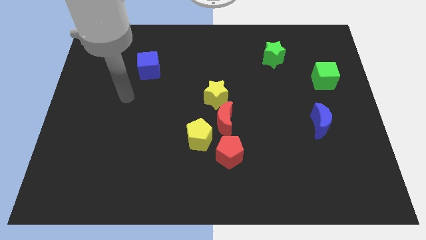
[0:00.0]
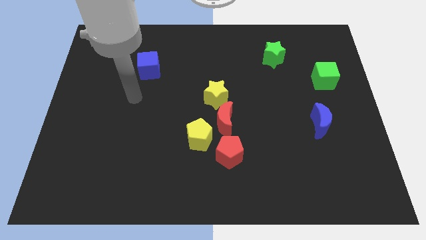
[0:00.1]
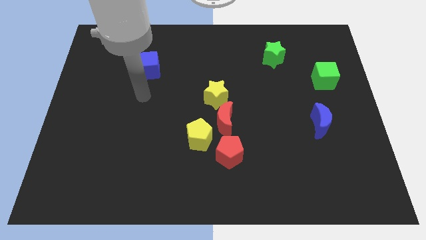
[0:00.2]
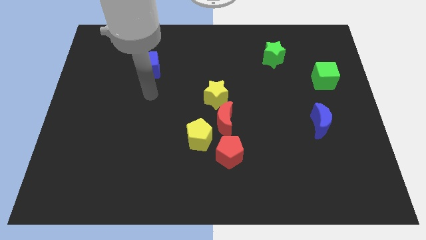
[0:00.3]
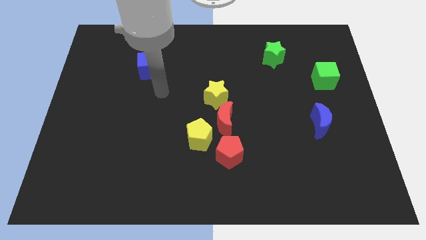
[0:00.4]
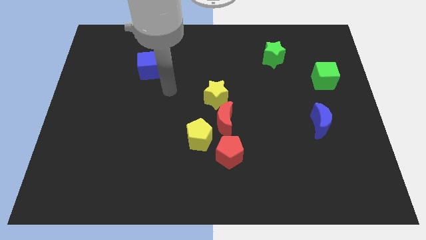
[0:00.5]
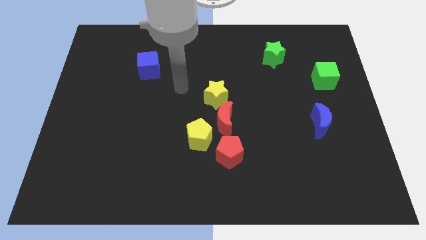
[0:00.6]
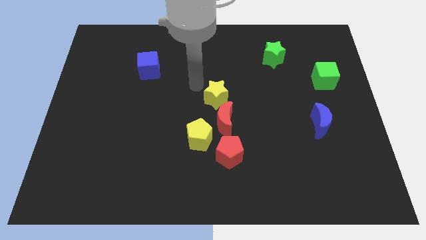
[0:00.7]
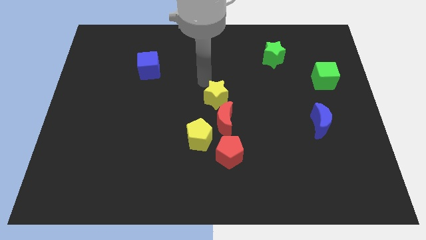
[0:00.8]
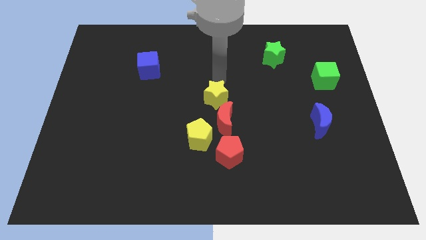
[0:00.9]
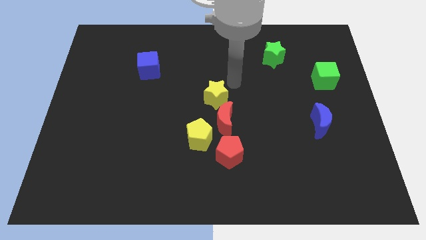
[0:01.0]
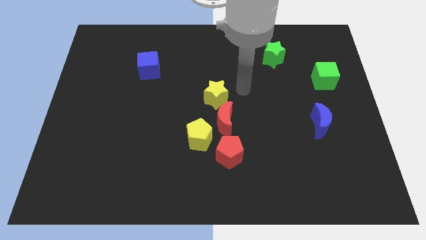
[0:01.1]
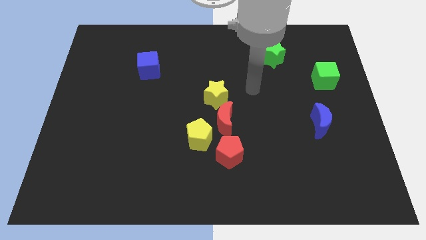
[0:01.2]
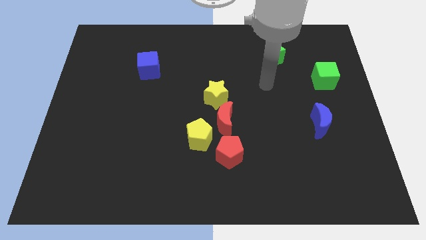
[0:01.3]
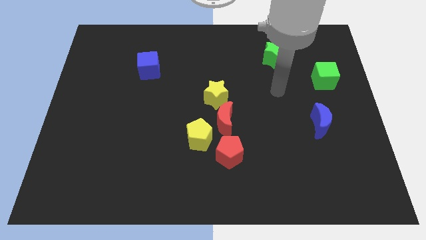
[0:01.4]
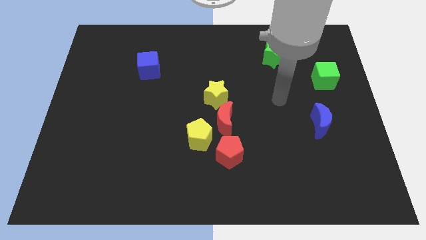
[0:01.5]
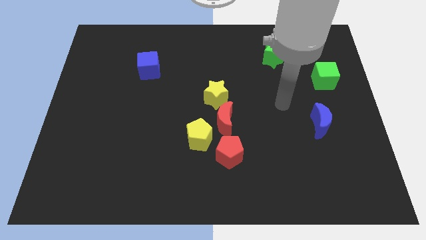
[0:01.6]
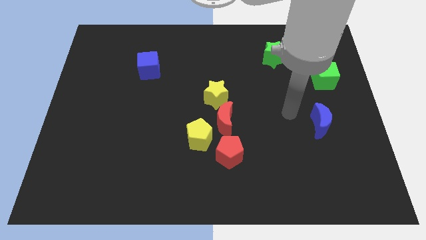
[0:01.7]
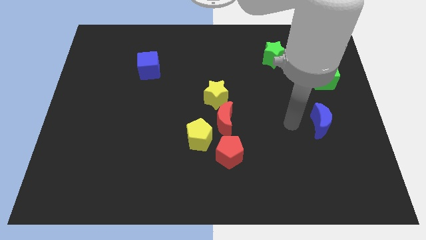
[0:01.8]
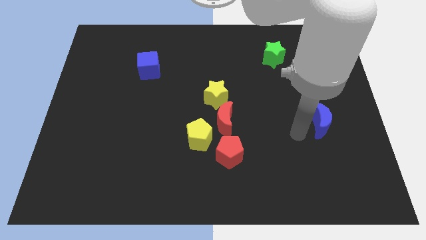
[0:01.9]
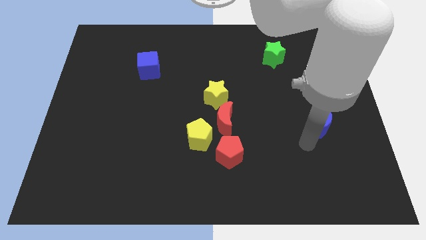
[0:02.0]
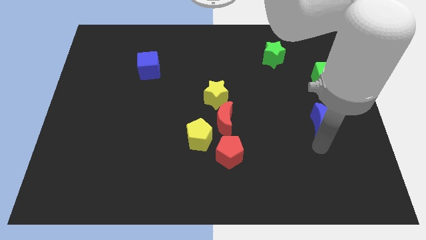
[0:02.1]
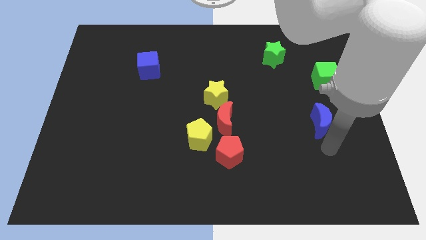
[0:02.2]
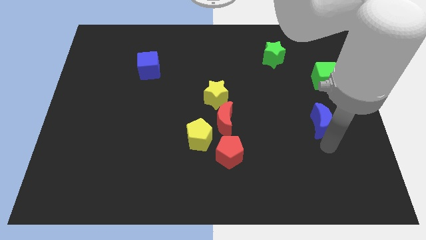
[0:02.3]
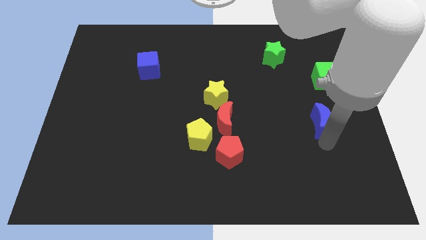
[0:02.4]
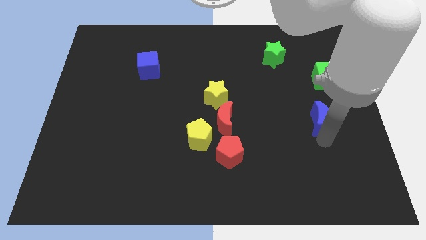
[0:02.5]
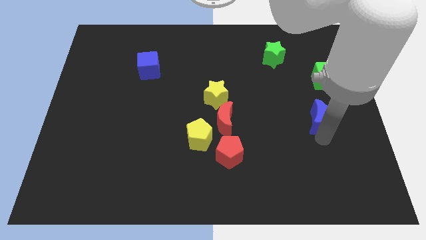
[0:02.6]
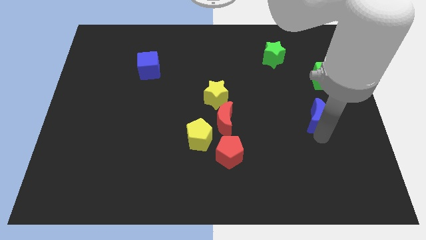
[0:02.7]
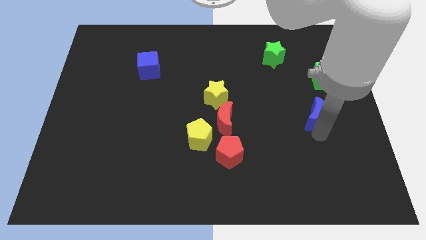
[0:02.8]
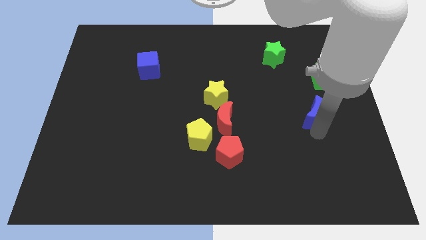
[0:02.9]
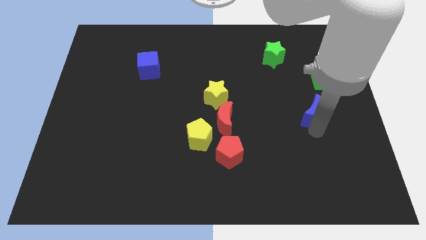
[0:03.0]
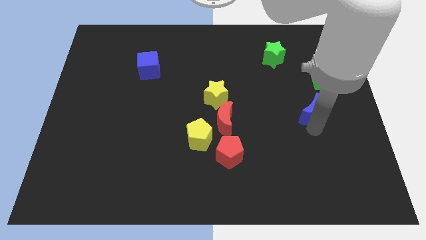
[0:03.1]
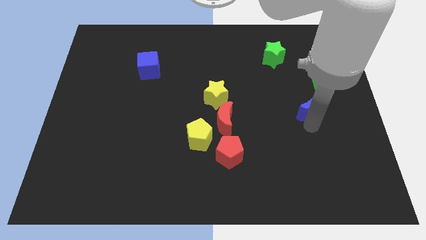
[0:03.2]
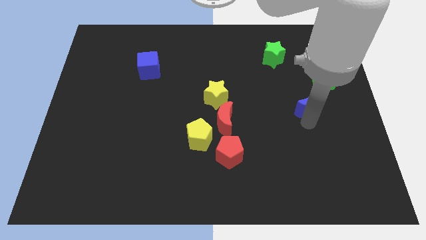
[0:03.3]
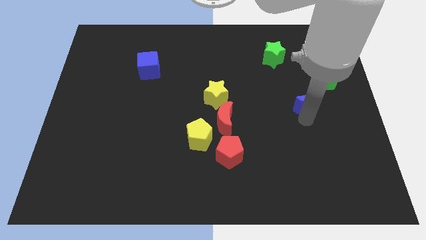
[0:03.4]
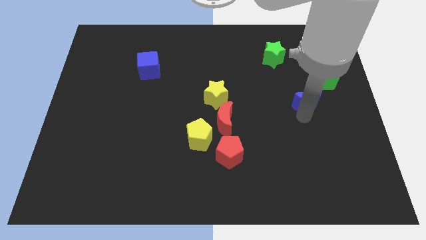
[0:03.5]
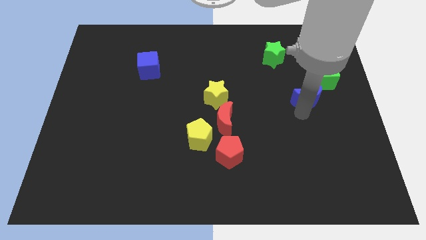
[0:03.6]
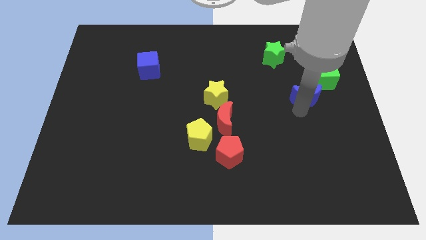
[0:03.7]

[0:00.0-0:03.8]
slightly move the blue moon upwards

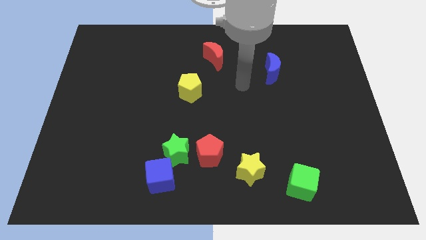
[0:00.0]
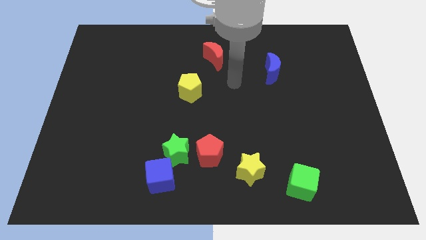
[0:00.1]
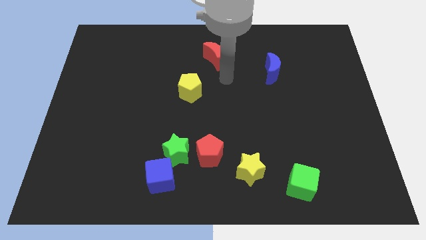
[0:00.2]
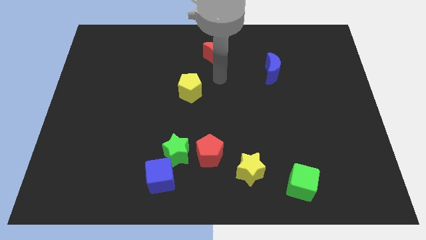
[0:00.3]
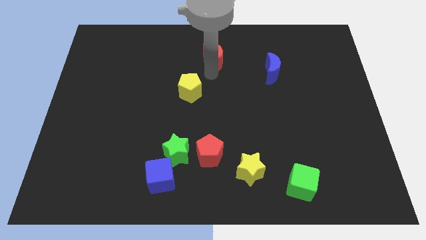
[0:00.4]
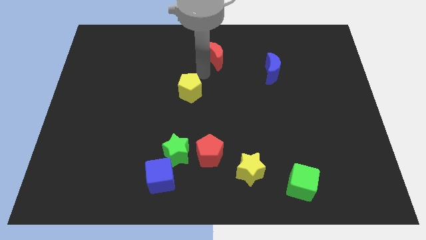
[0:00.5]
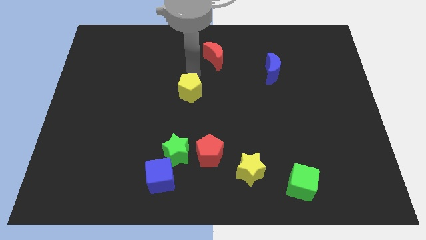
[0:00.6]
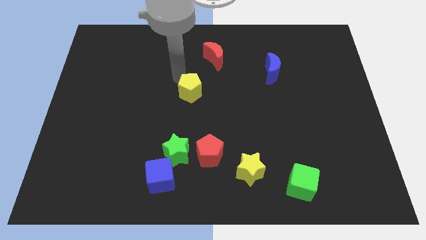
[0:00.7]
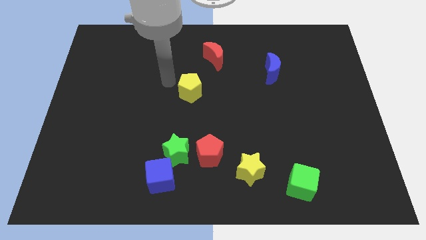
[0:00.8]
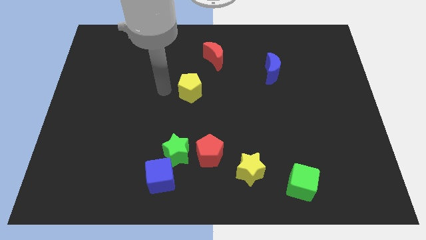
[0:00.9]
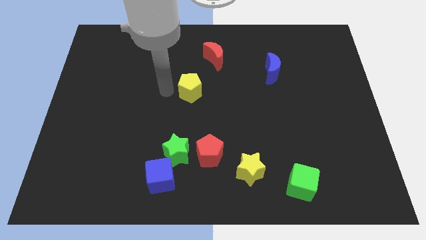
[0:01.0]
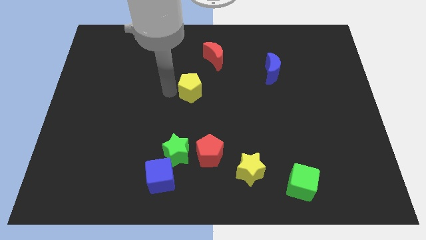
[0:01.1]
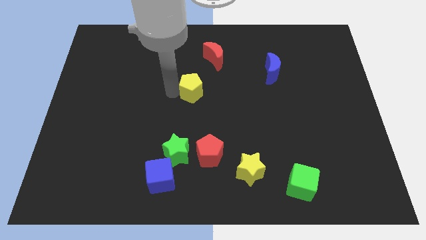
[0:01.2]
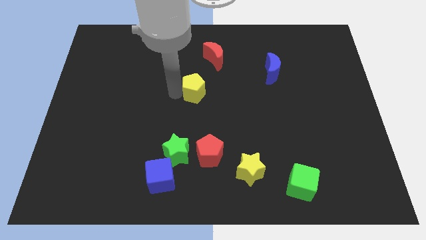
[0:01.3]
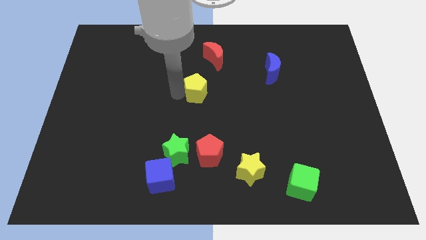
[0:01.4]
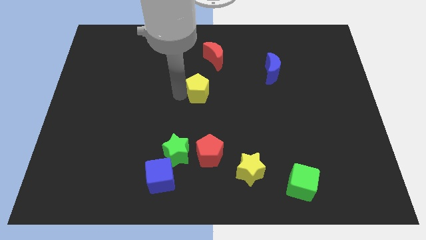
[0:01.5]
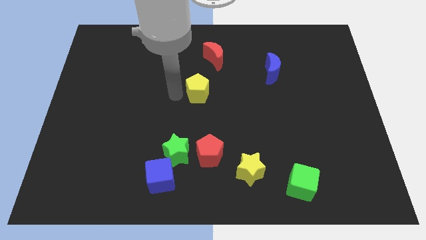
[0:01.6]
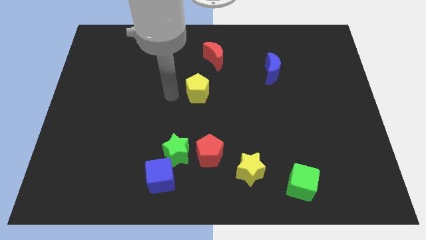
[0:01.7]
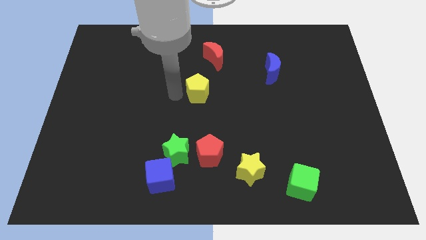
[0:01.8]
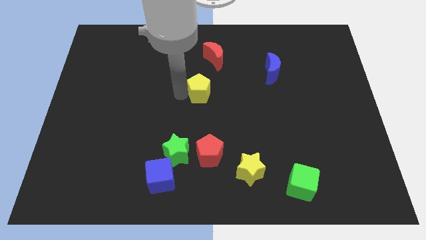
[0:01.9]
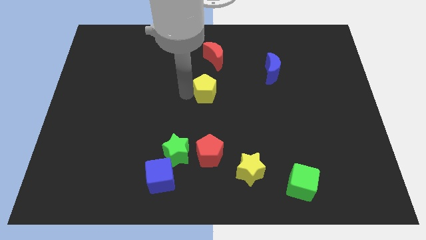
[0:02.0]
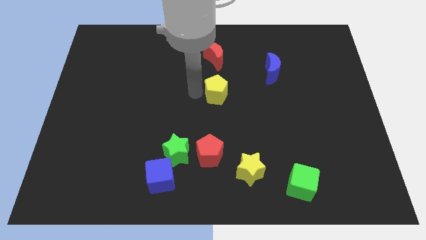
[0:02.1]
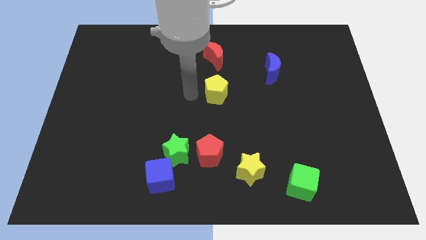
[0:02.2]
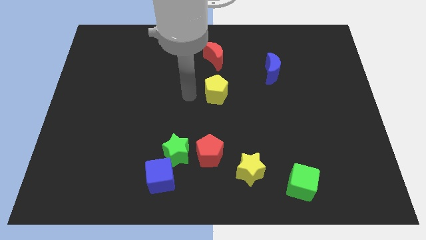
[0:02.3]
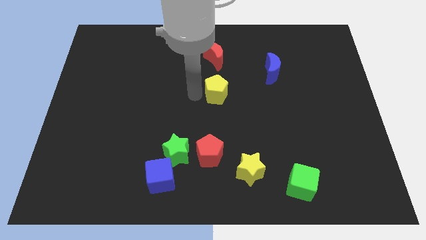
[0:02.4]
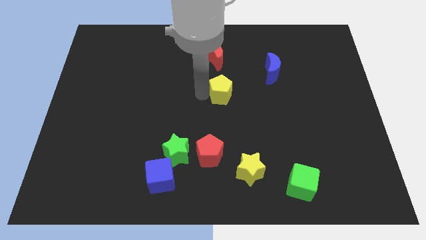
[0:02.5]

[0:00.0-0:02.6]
slightly slide the yellow pentagon right

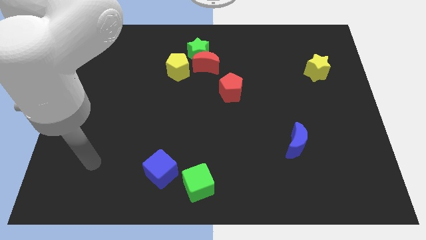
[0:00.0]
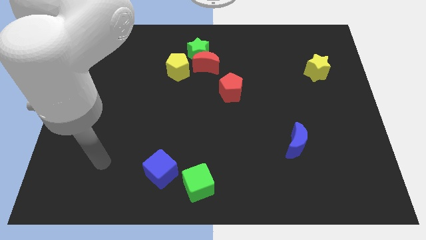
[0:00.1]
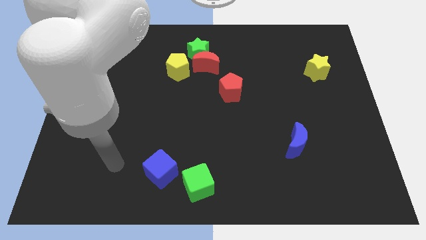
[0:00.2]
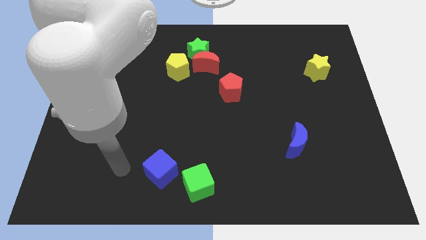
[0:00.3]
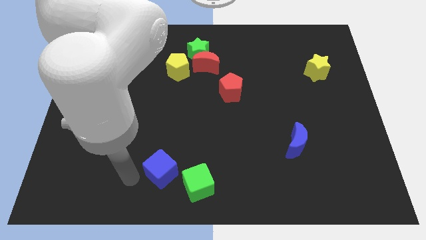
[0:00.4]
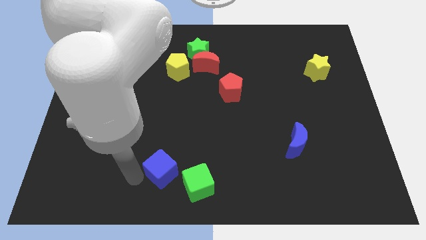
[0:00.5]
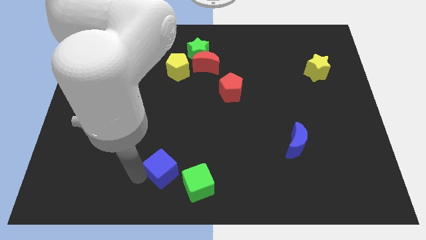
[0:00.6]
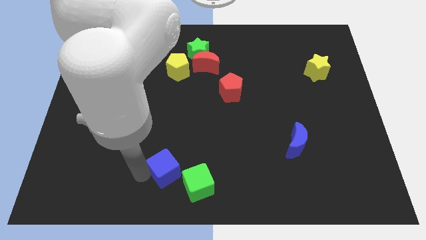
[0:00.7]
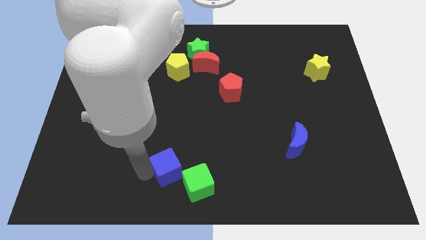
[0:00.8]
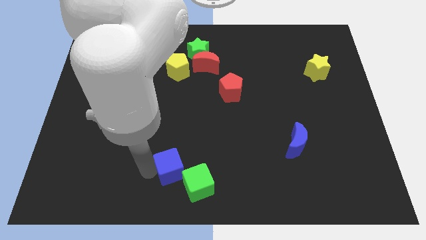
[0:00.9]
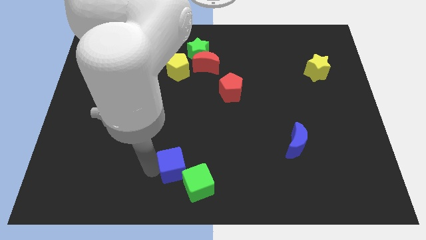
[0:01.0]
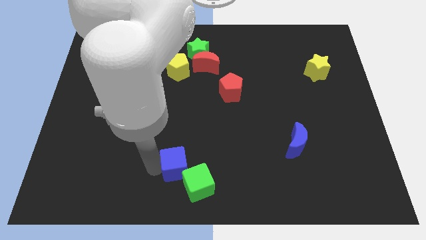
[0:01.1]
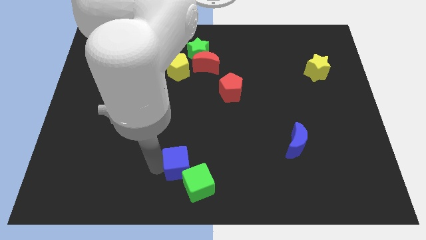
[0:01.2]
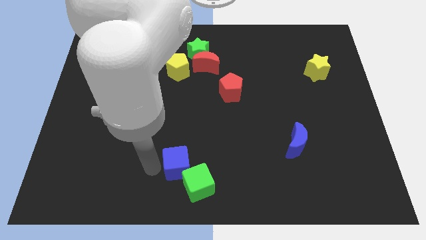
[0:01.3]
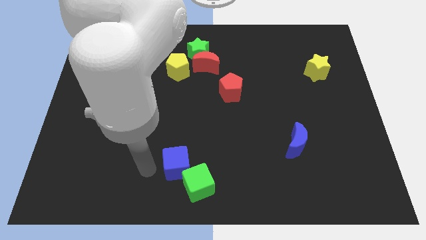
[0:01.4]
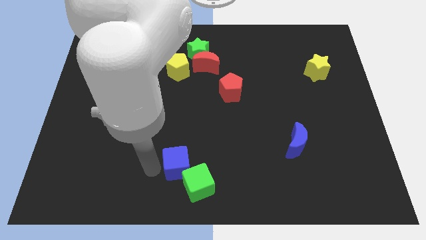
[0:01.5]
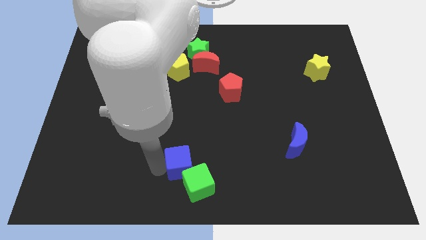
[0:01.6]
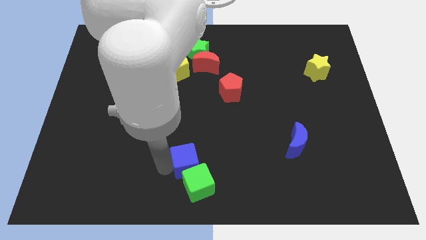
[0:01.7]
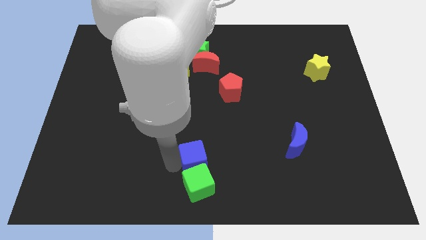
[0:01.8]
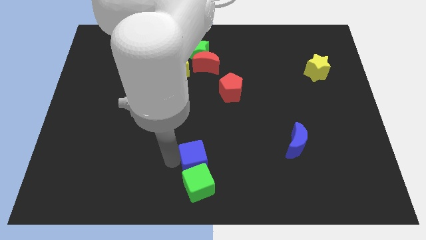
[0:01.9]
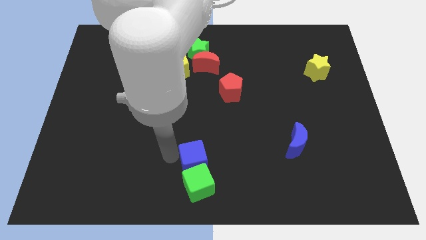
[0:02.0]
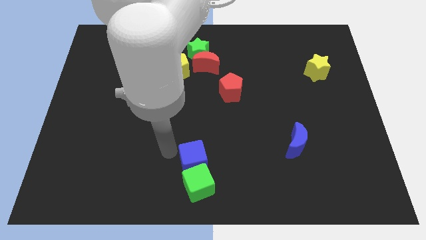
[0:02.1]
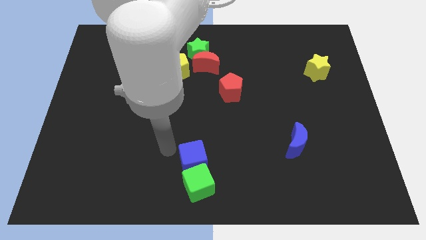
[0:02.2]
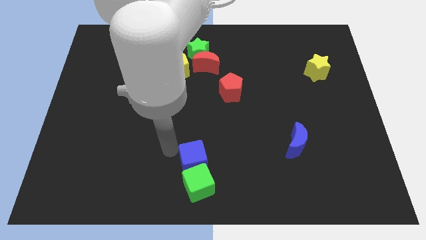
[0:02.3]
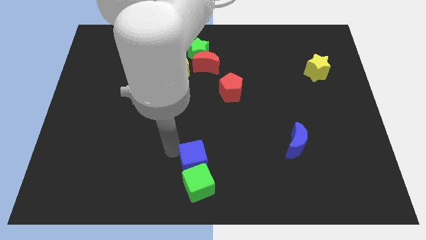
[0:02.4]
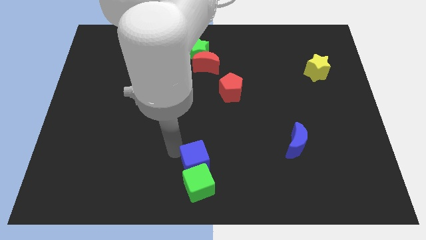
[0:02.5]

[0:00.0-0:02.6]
slide the blue cube a little bit right
